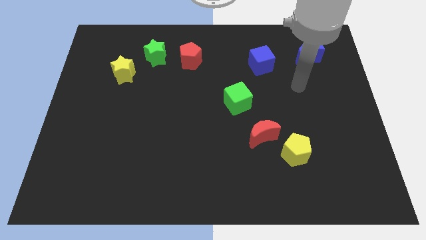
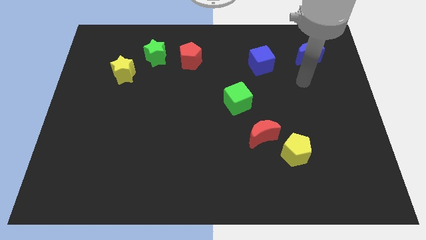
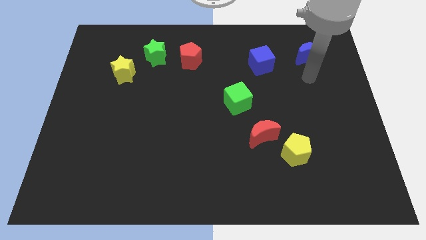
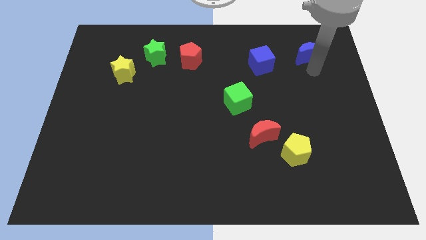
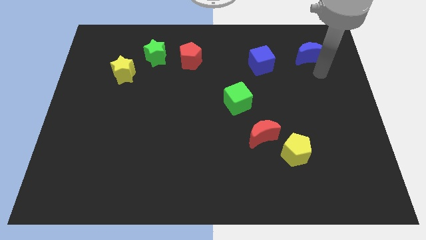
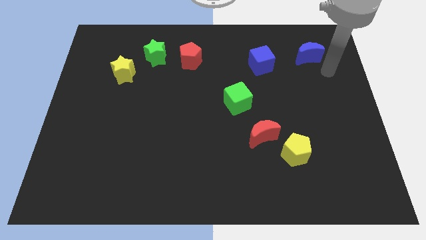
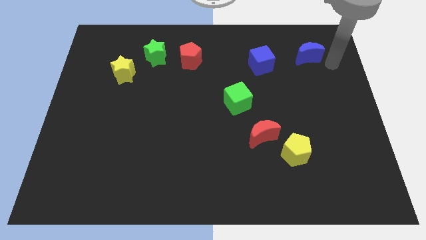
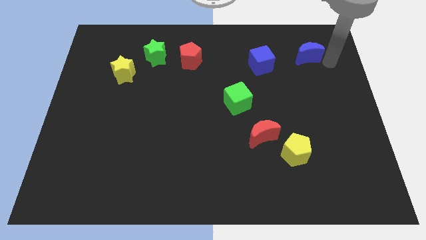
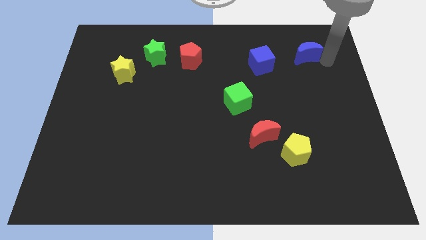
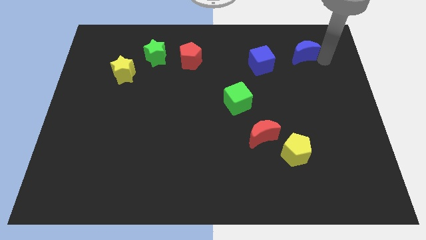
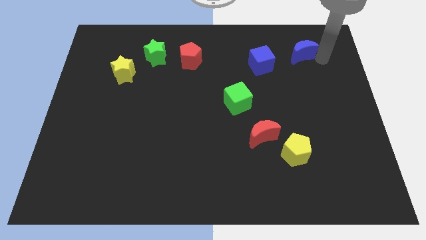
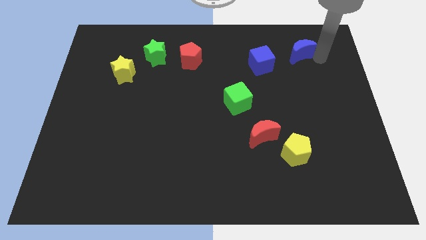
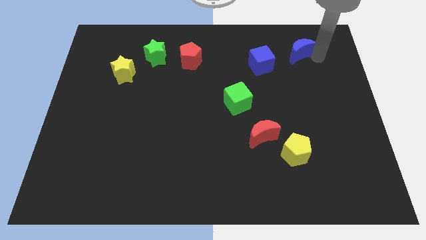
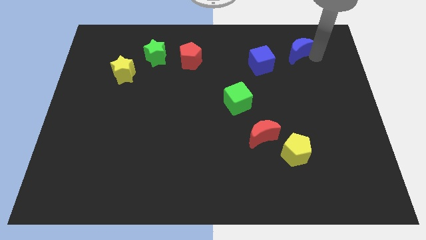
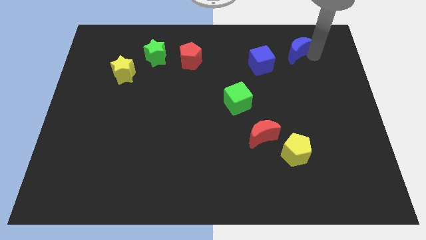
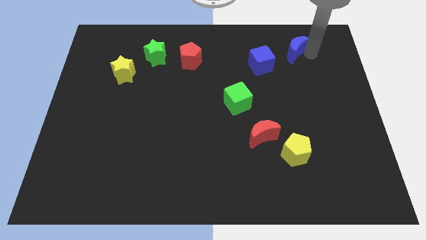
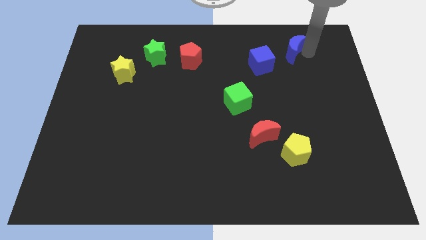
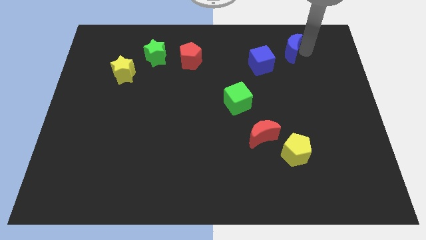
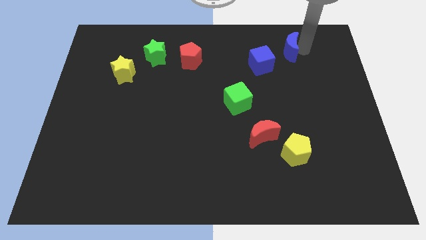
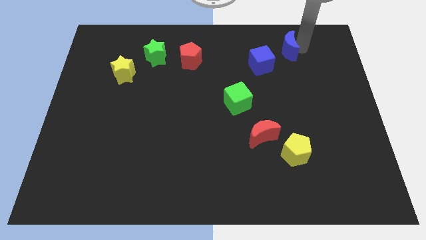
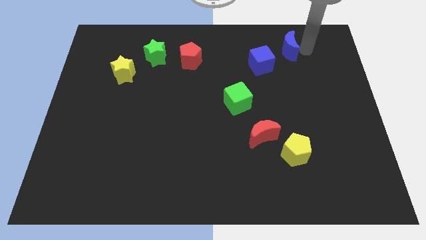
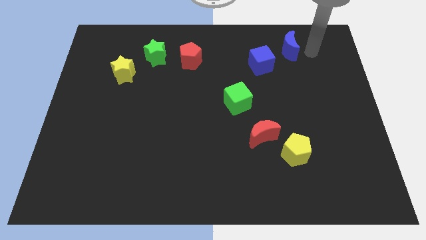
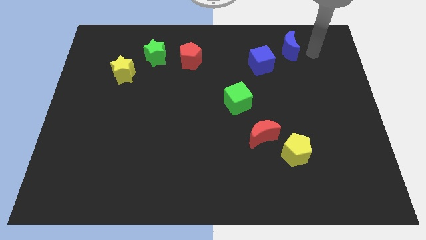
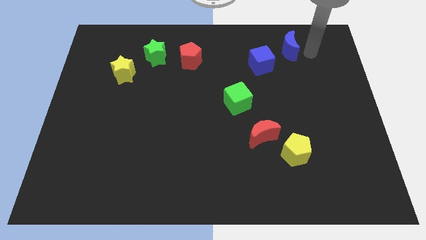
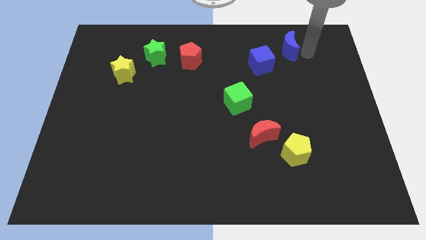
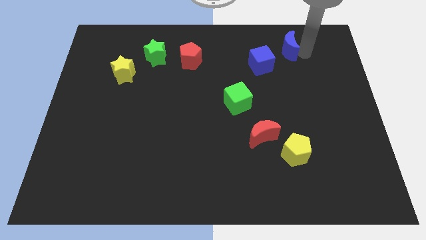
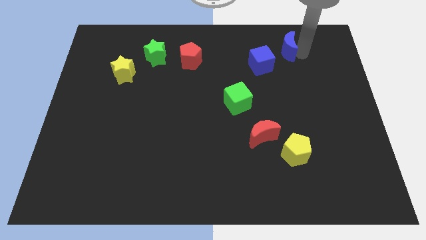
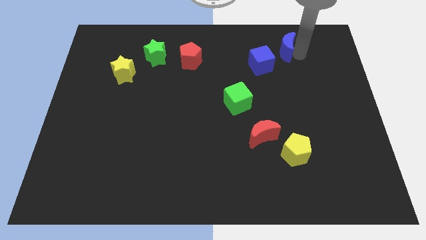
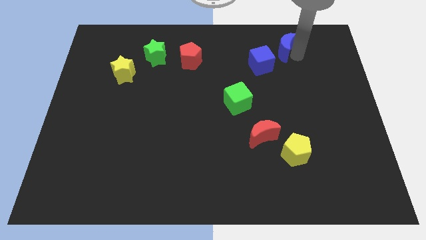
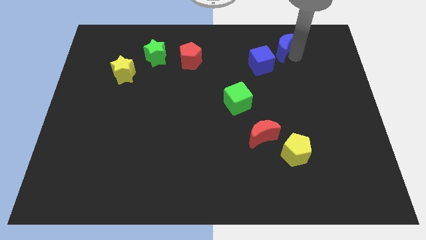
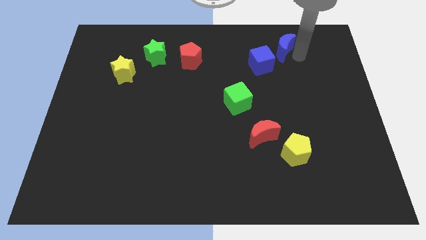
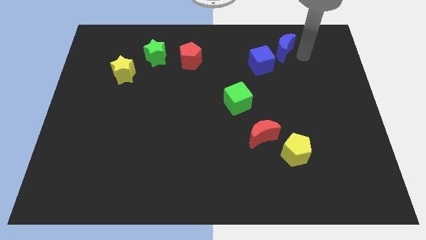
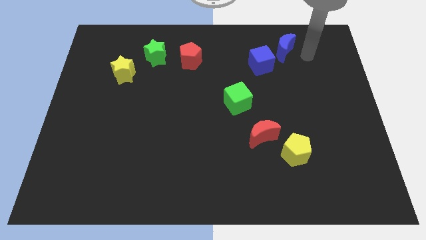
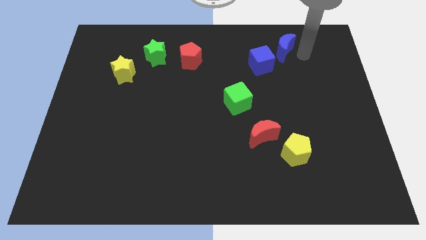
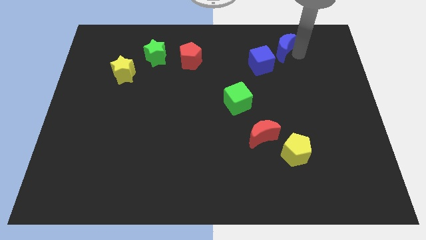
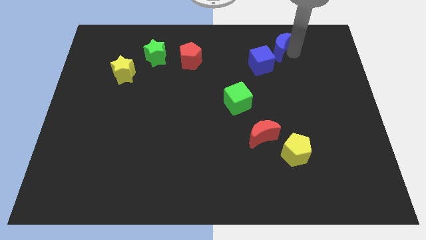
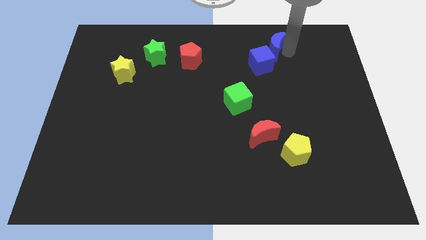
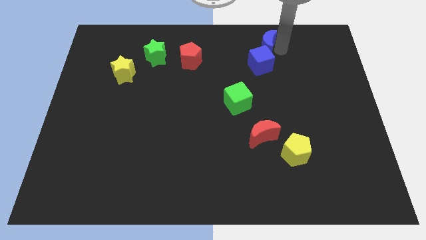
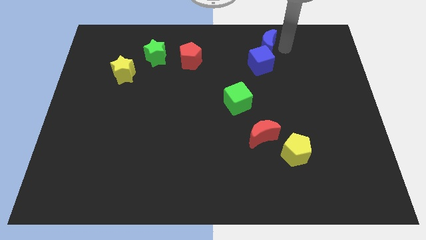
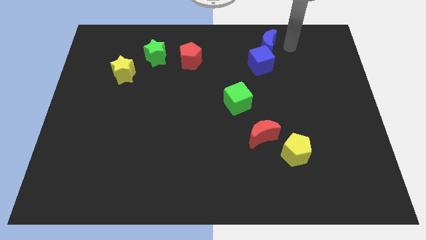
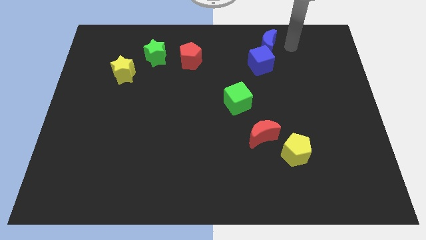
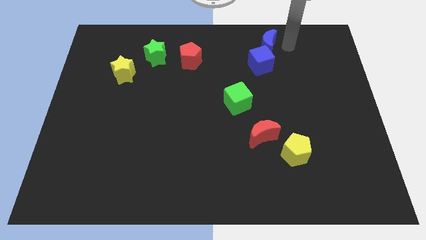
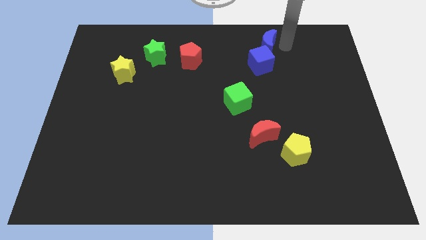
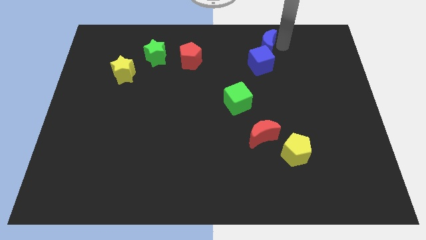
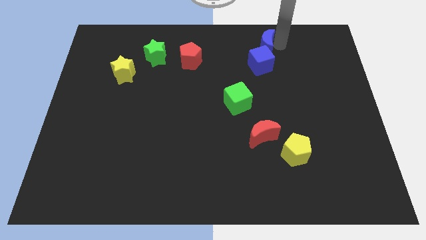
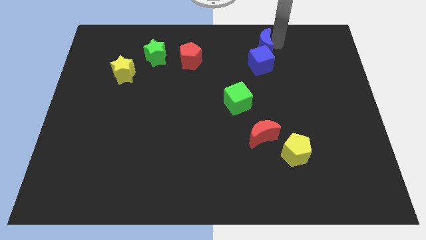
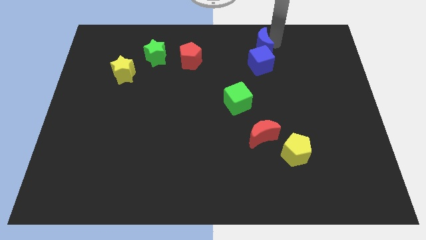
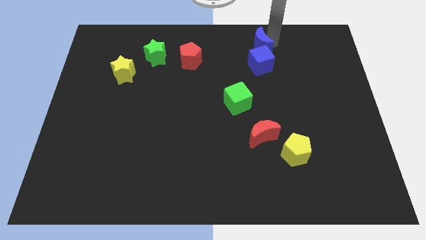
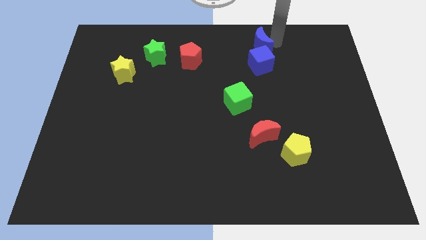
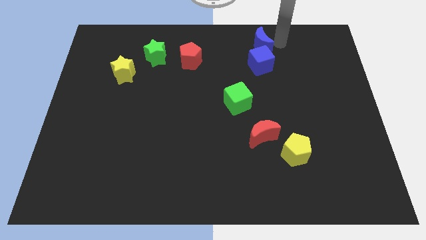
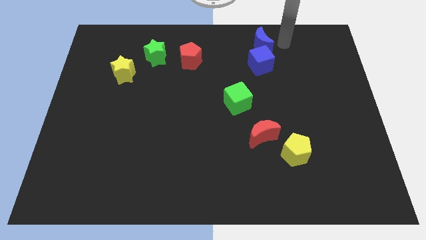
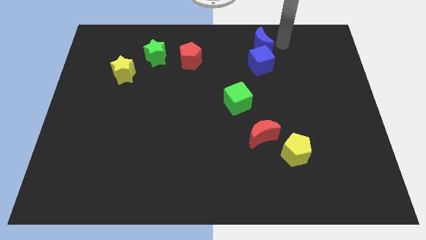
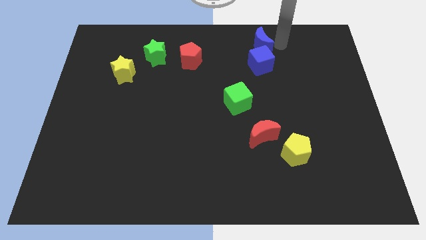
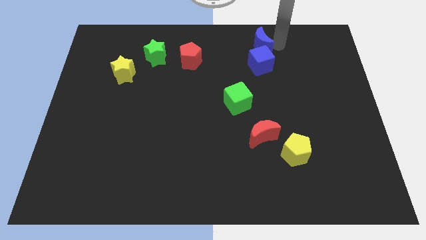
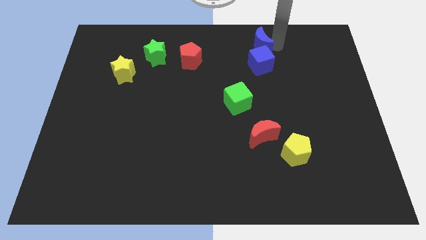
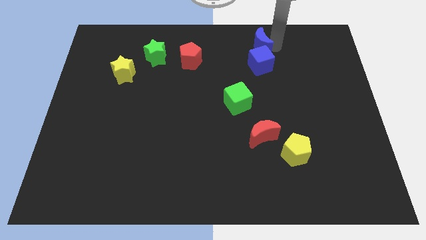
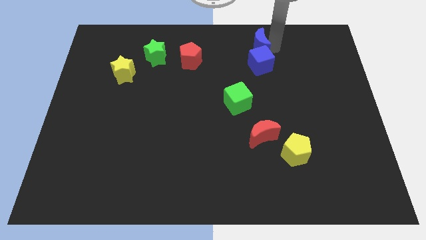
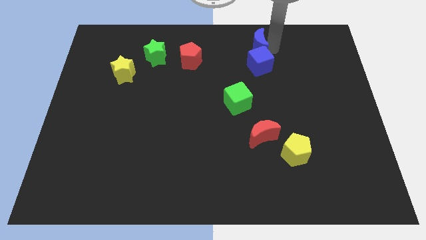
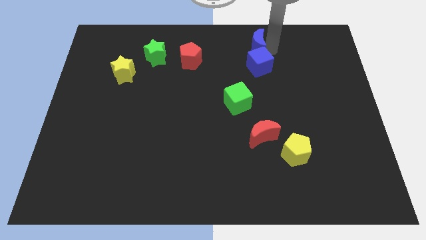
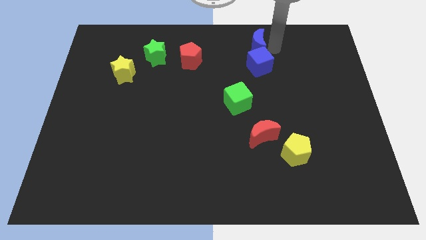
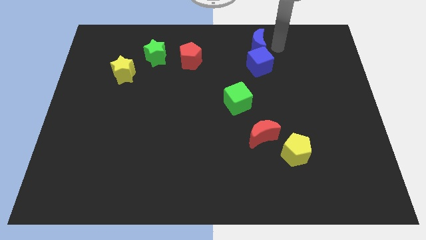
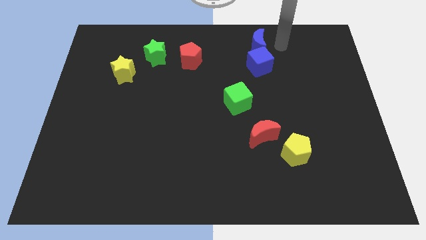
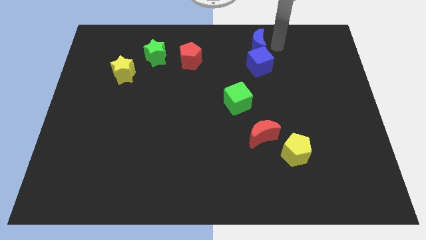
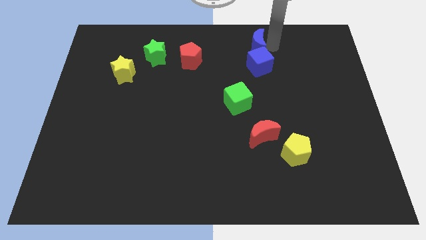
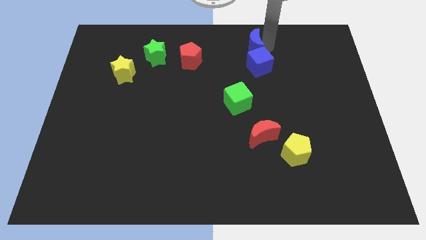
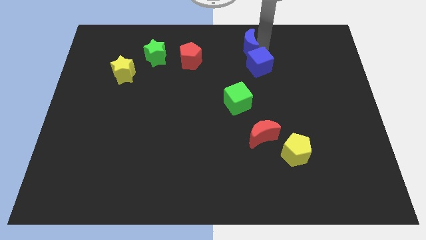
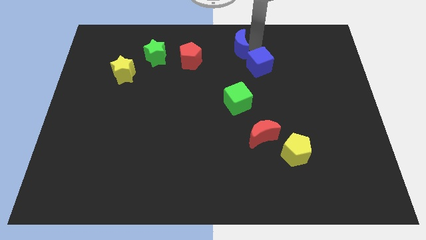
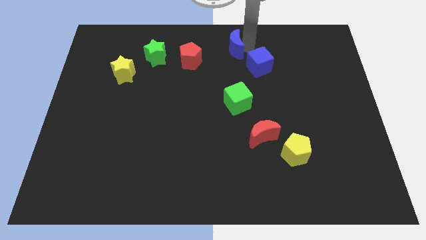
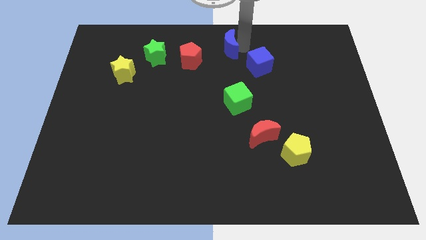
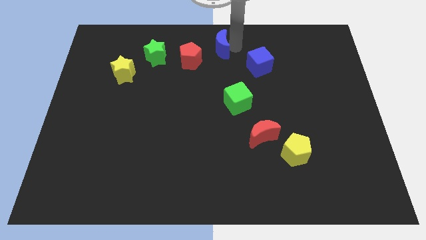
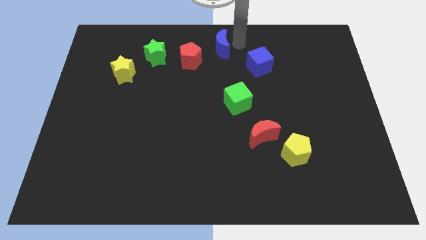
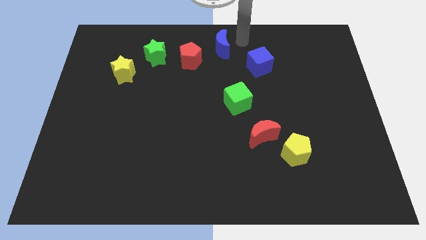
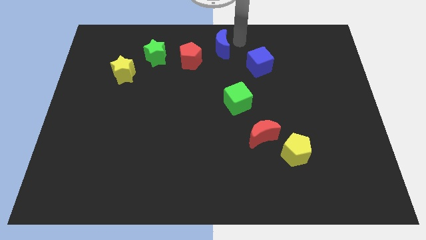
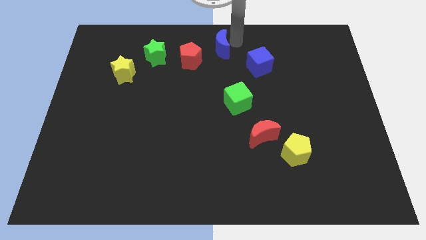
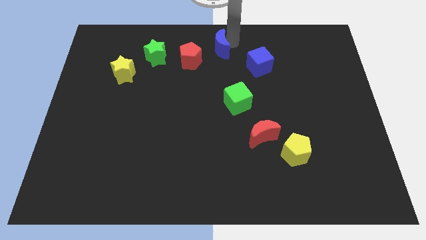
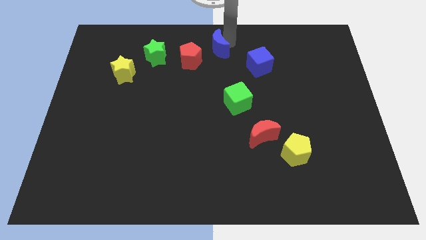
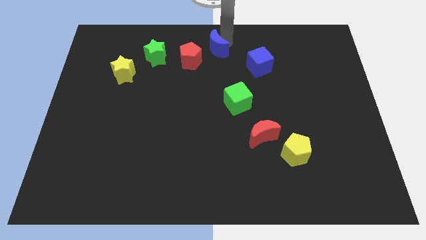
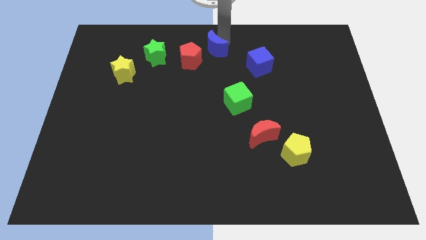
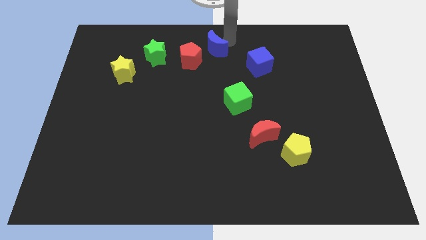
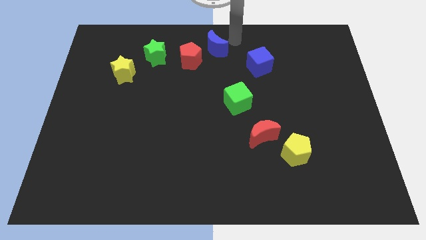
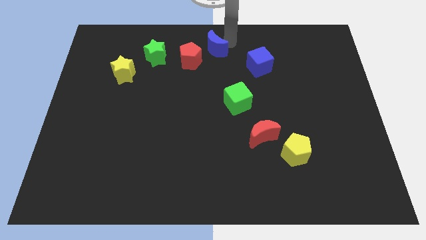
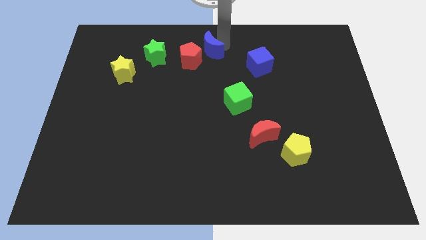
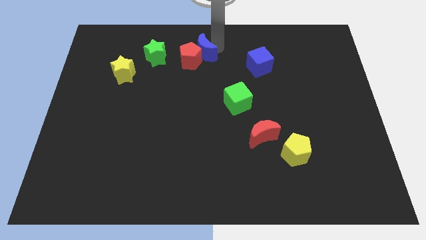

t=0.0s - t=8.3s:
move the blue moon to the red pentagon
